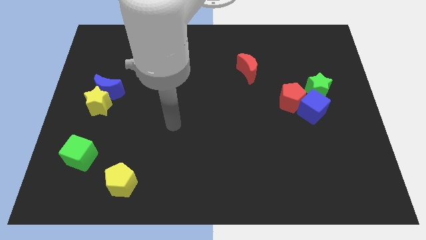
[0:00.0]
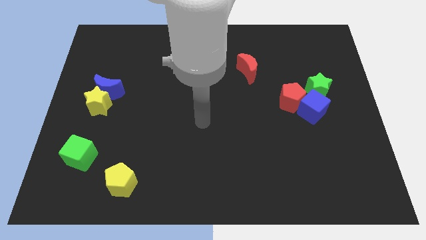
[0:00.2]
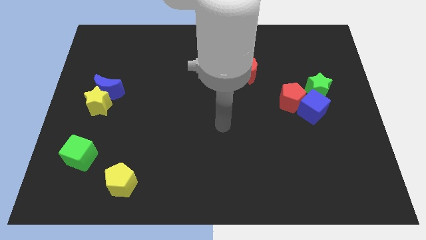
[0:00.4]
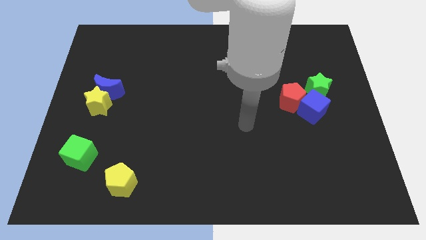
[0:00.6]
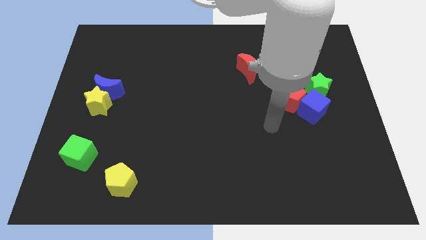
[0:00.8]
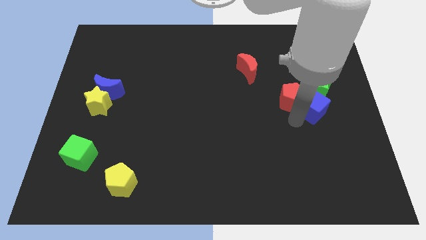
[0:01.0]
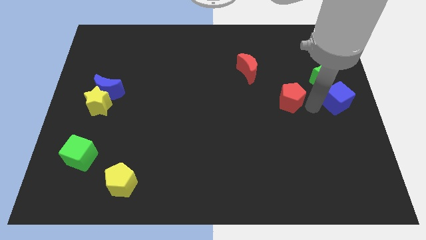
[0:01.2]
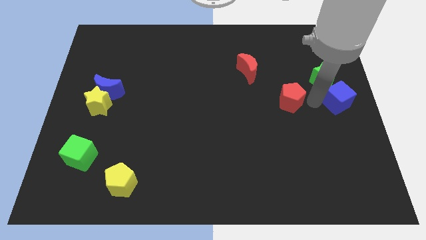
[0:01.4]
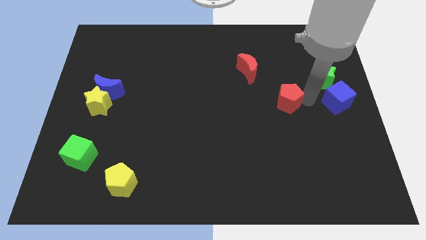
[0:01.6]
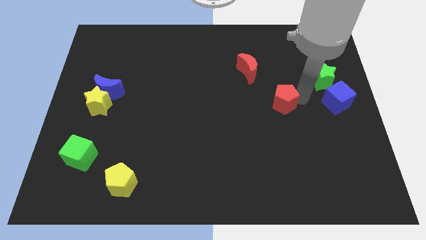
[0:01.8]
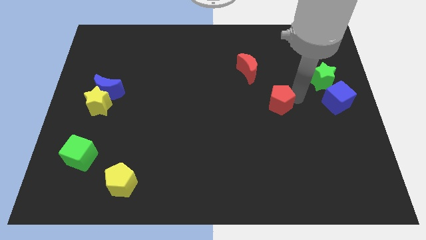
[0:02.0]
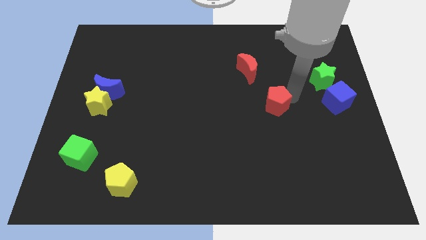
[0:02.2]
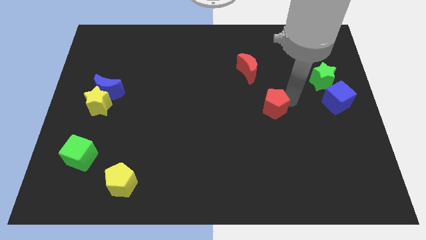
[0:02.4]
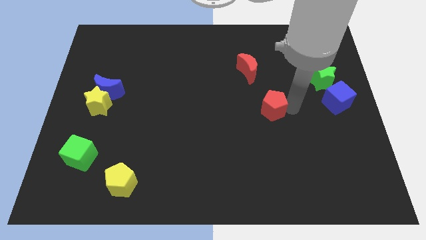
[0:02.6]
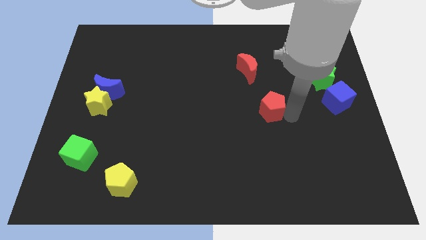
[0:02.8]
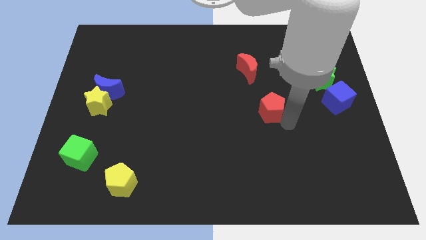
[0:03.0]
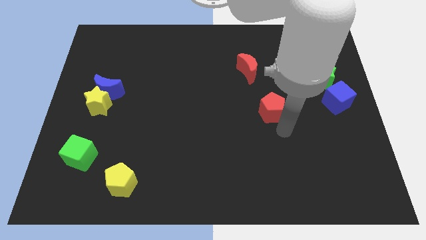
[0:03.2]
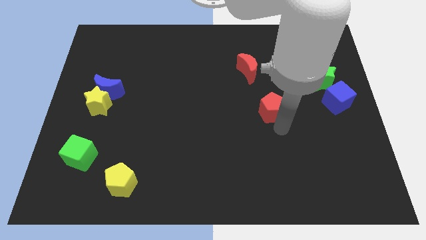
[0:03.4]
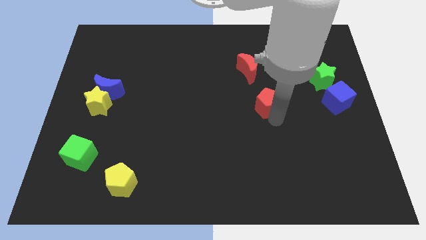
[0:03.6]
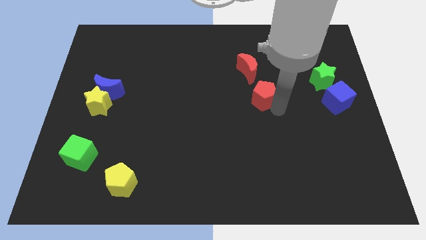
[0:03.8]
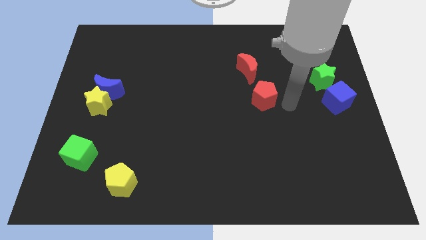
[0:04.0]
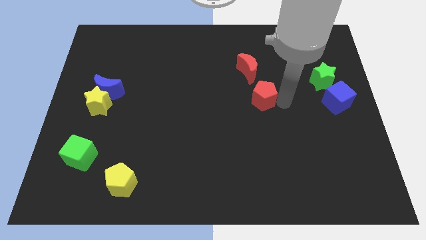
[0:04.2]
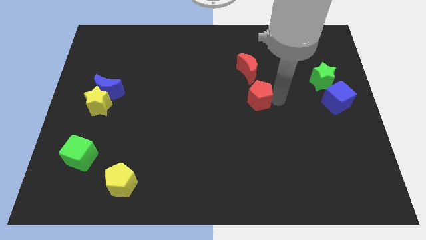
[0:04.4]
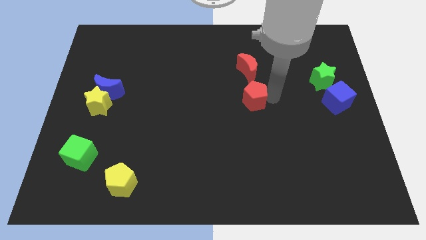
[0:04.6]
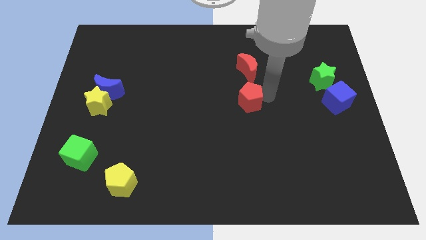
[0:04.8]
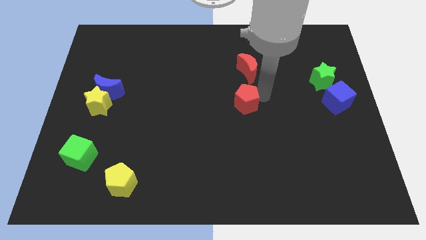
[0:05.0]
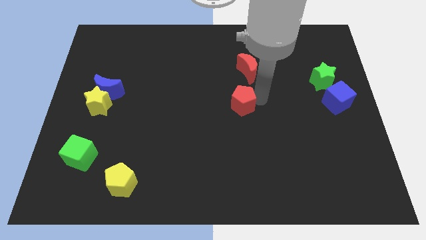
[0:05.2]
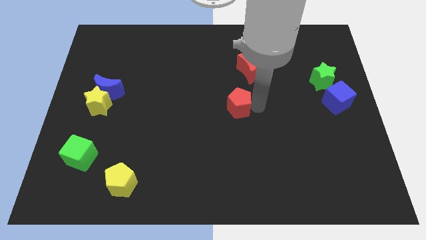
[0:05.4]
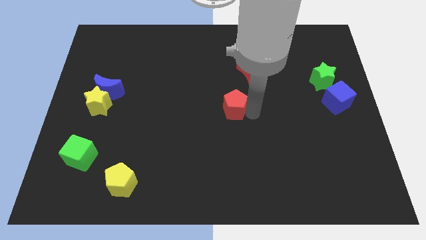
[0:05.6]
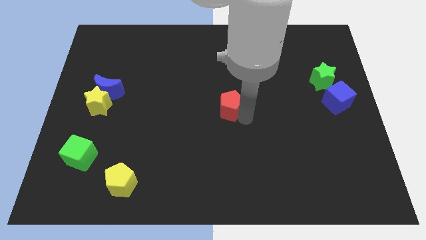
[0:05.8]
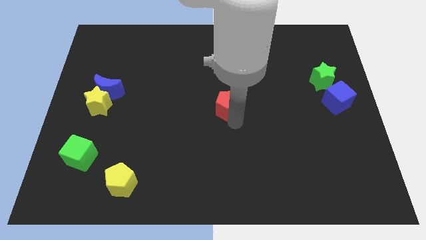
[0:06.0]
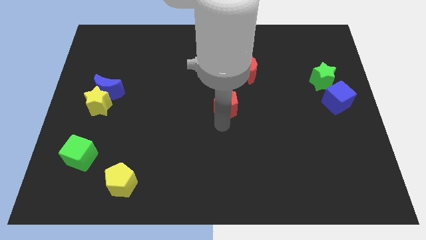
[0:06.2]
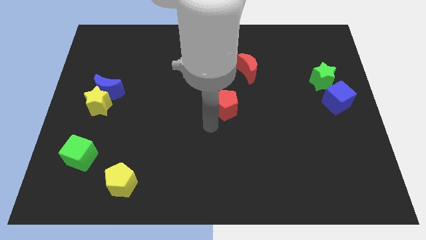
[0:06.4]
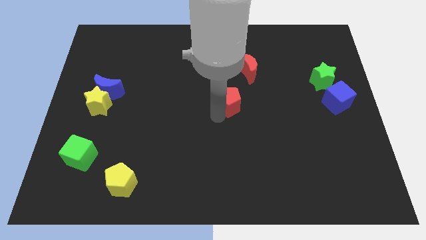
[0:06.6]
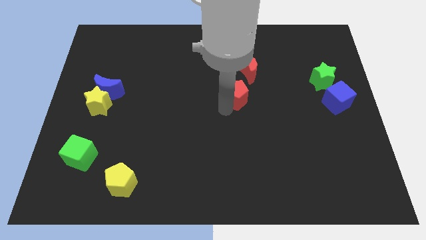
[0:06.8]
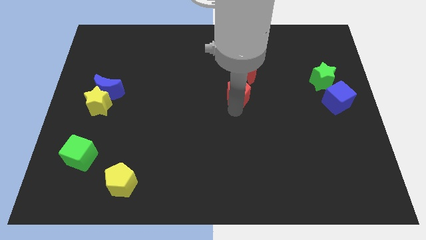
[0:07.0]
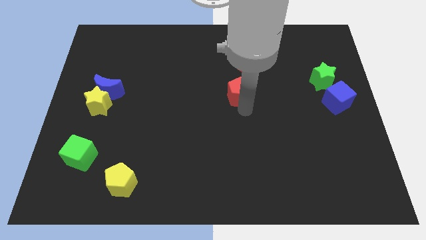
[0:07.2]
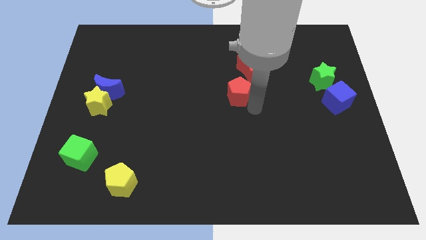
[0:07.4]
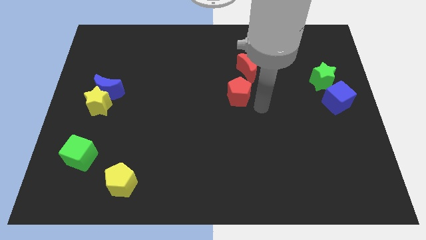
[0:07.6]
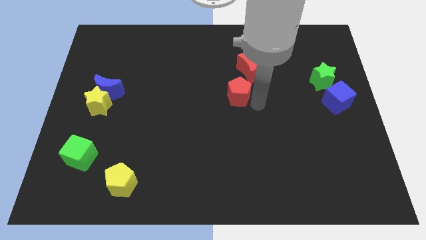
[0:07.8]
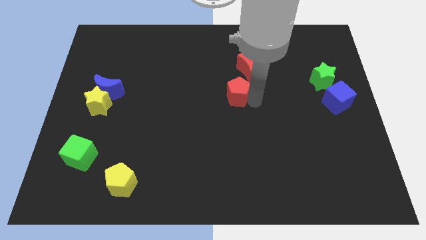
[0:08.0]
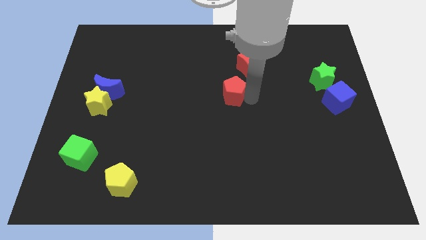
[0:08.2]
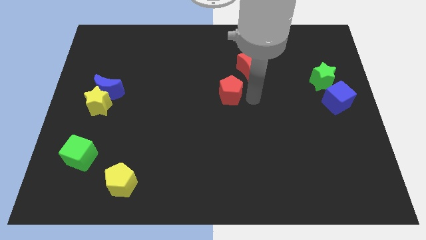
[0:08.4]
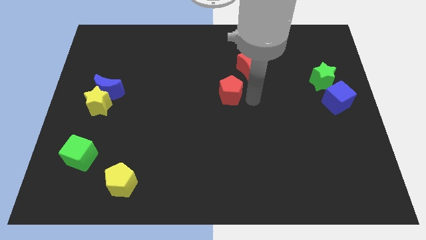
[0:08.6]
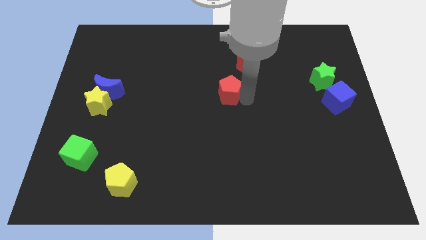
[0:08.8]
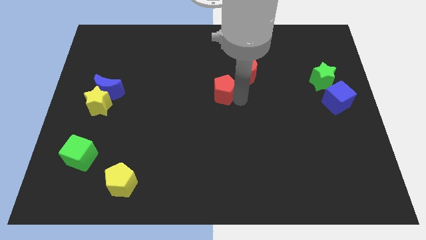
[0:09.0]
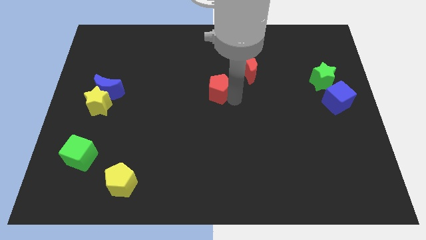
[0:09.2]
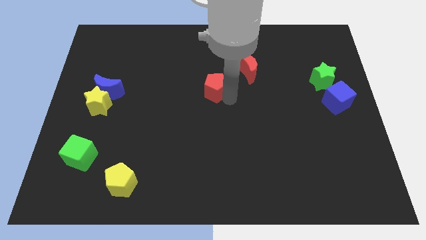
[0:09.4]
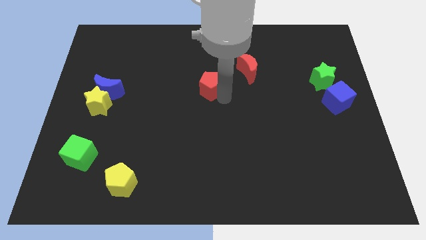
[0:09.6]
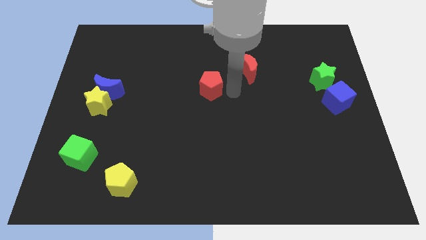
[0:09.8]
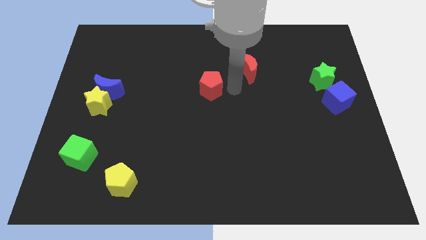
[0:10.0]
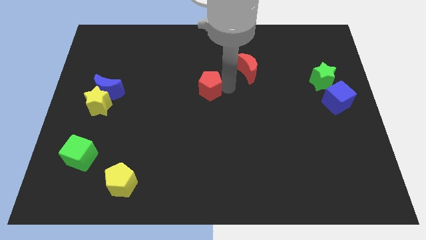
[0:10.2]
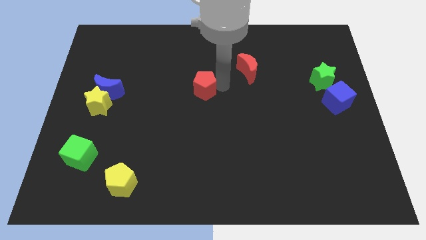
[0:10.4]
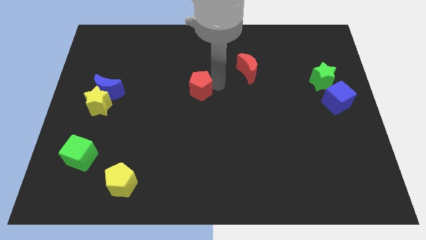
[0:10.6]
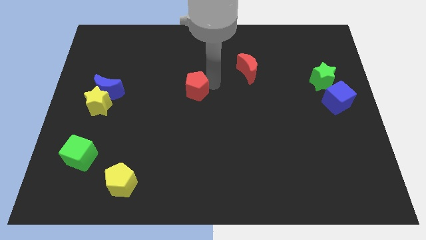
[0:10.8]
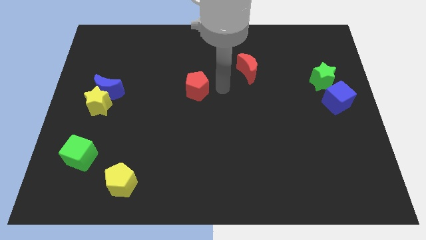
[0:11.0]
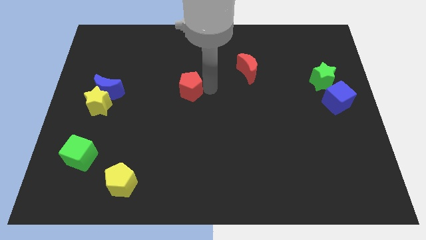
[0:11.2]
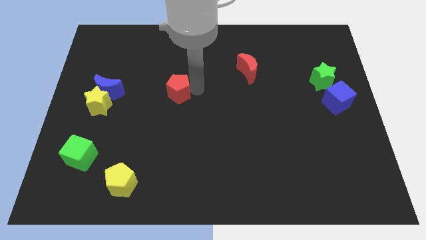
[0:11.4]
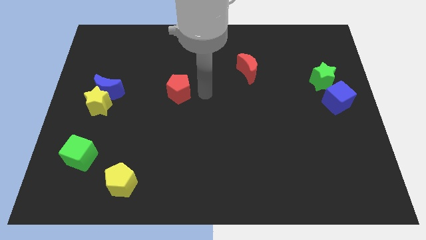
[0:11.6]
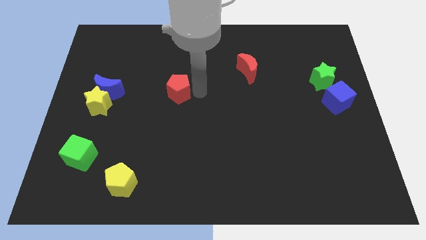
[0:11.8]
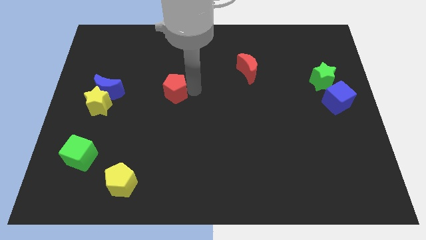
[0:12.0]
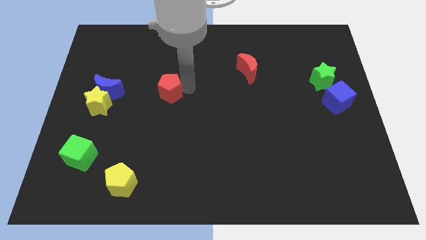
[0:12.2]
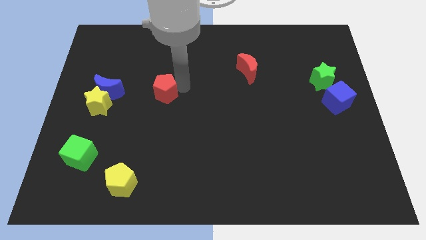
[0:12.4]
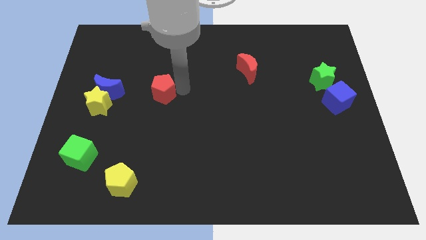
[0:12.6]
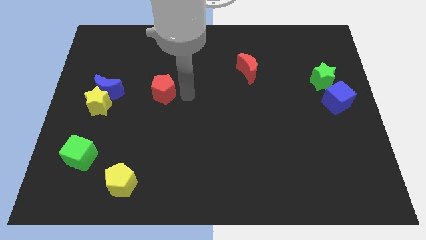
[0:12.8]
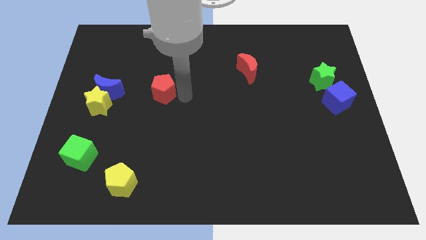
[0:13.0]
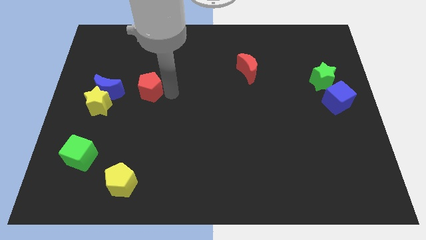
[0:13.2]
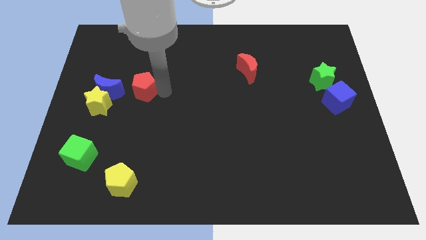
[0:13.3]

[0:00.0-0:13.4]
slide the red pentagon to the top right side of the yellow star
